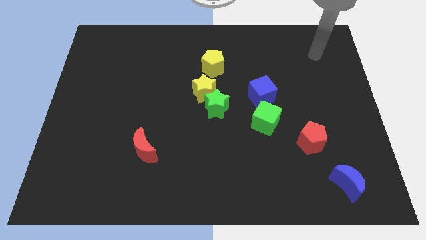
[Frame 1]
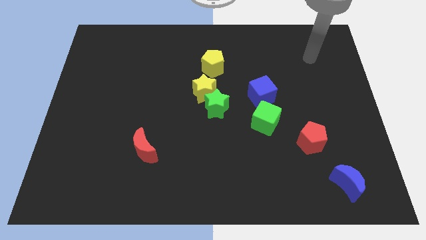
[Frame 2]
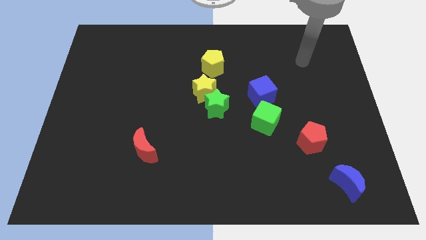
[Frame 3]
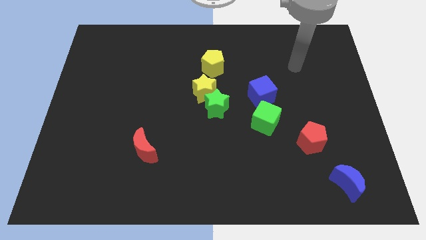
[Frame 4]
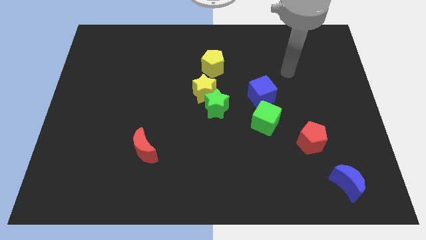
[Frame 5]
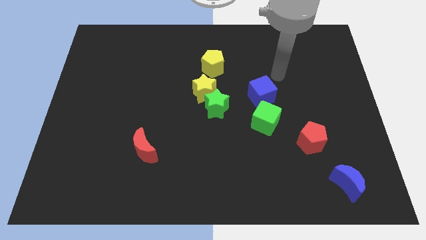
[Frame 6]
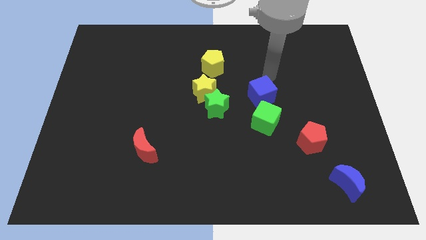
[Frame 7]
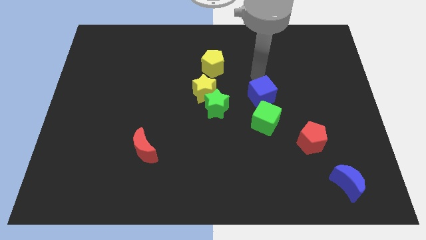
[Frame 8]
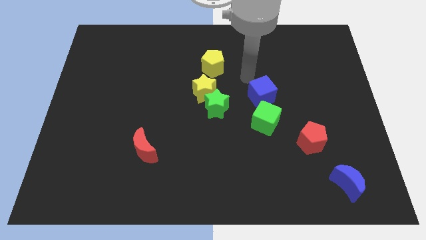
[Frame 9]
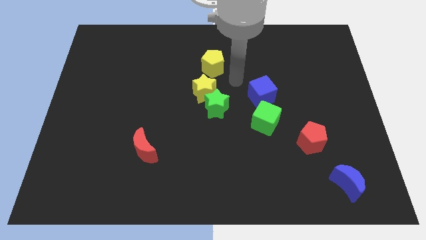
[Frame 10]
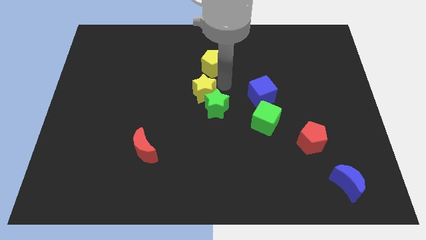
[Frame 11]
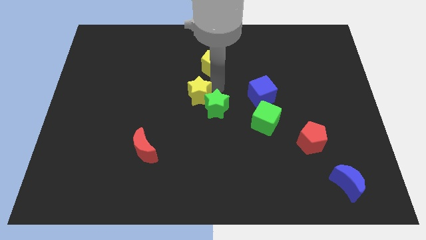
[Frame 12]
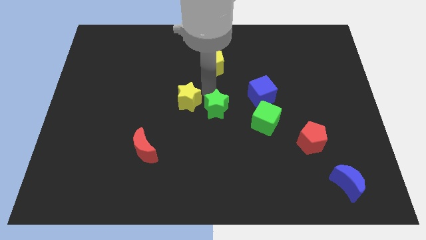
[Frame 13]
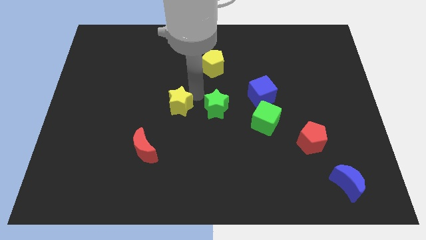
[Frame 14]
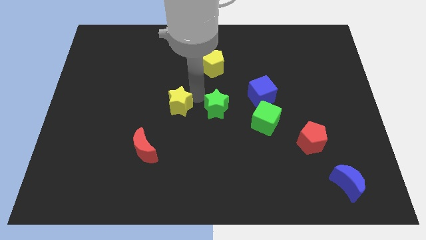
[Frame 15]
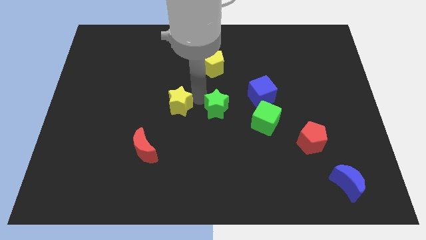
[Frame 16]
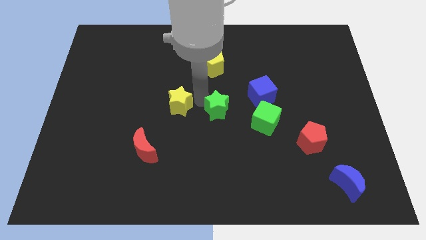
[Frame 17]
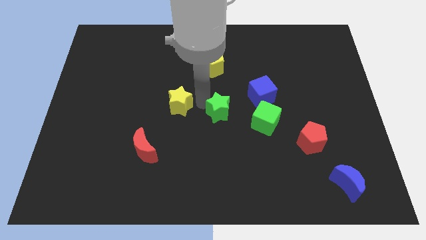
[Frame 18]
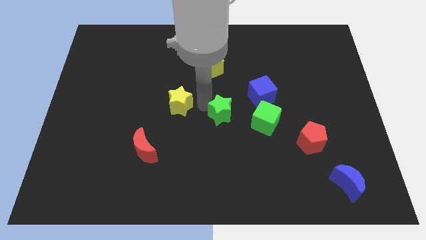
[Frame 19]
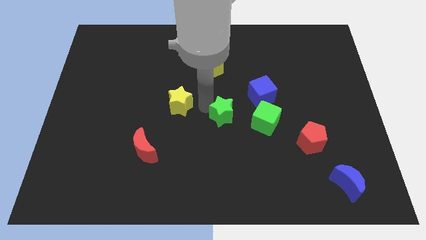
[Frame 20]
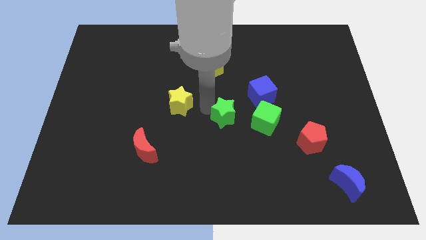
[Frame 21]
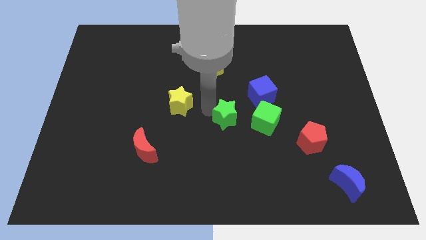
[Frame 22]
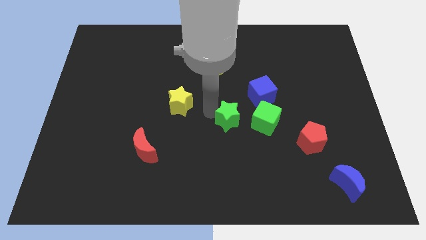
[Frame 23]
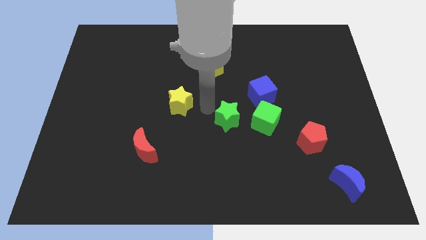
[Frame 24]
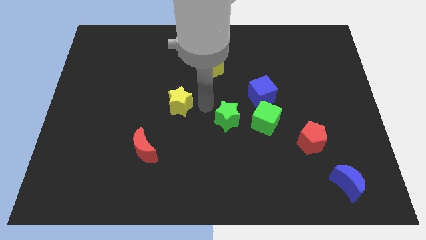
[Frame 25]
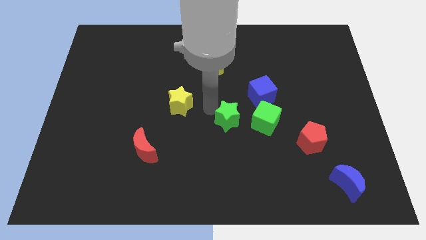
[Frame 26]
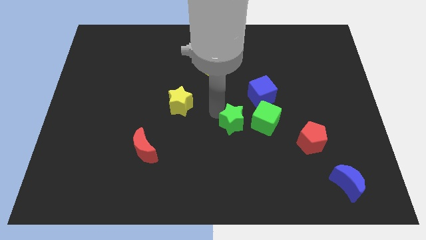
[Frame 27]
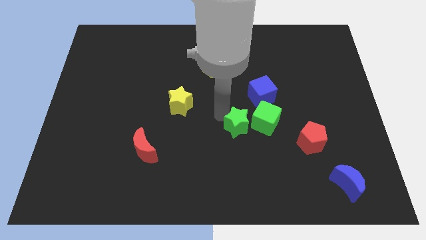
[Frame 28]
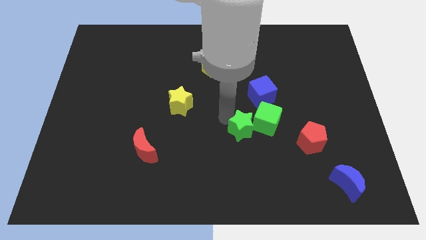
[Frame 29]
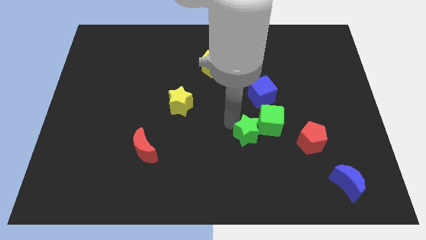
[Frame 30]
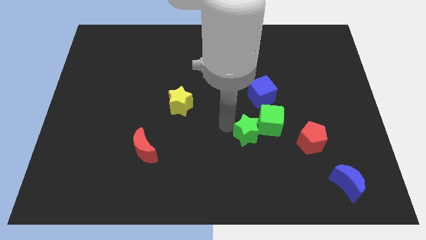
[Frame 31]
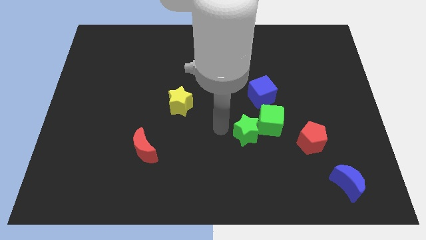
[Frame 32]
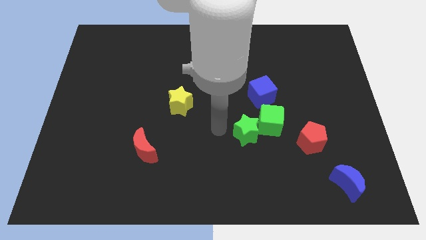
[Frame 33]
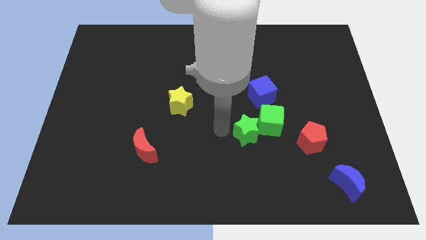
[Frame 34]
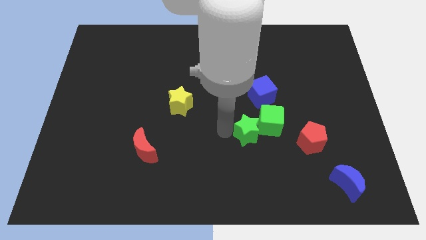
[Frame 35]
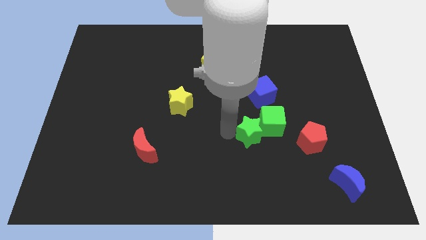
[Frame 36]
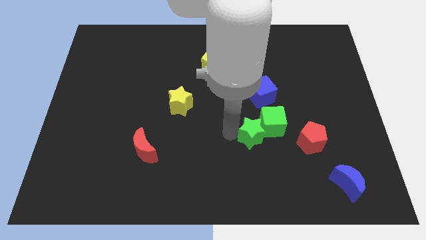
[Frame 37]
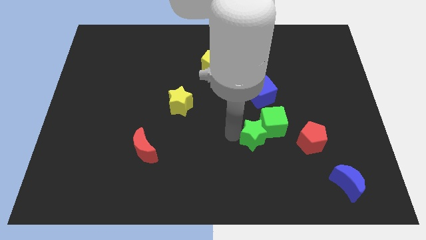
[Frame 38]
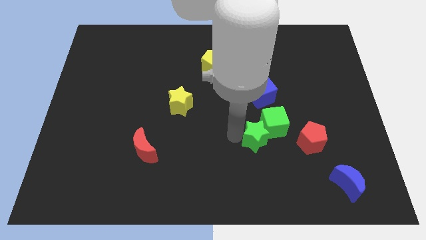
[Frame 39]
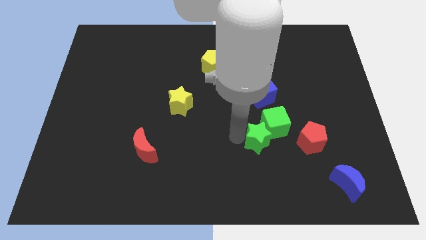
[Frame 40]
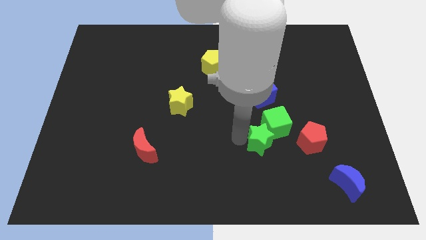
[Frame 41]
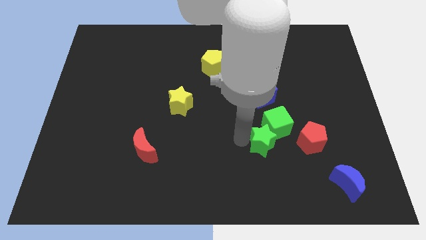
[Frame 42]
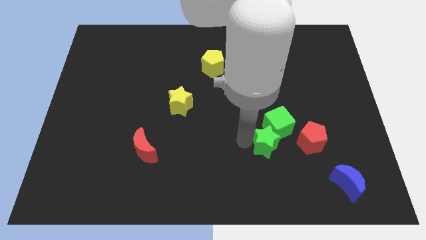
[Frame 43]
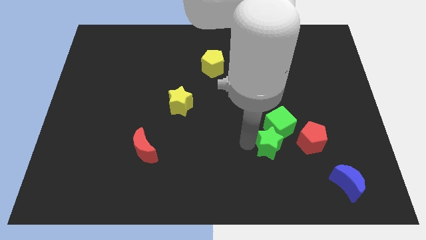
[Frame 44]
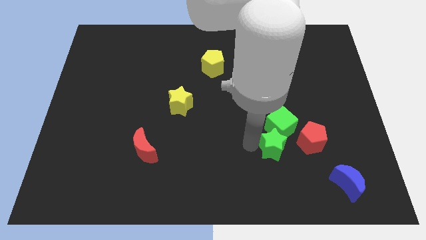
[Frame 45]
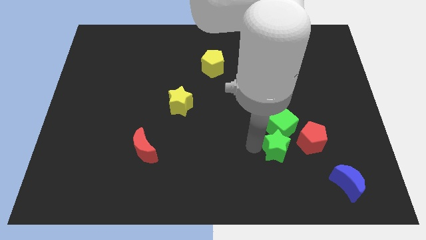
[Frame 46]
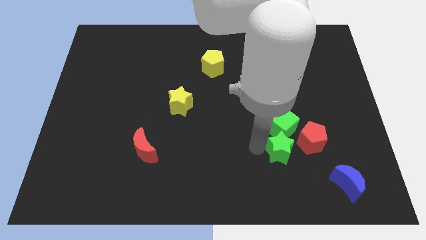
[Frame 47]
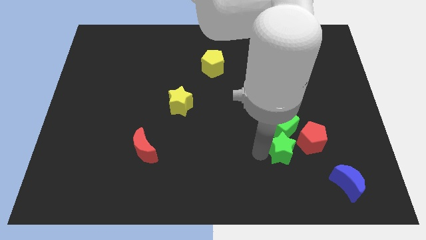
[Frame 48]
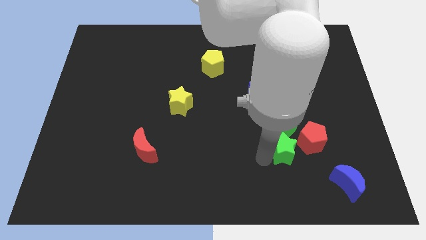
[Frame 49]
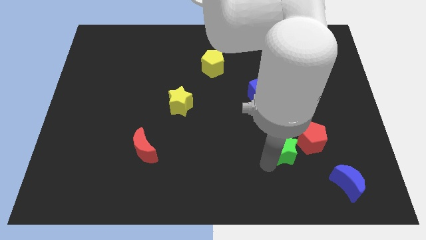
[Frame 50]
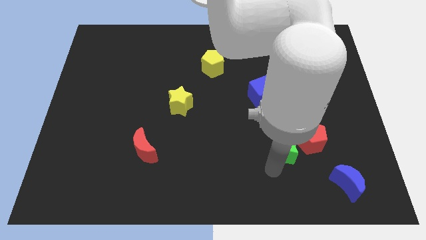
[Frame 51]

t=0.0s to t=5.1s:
push the green star a bit to the right

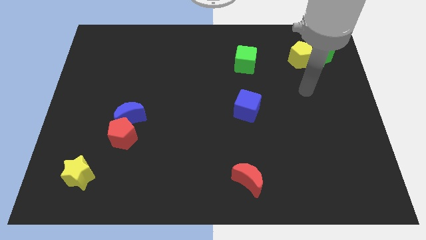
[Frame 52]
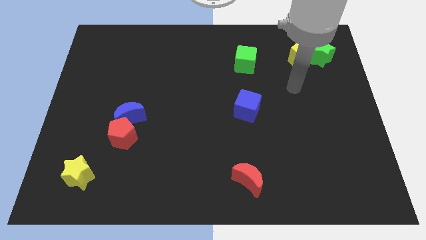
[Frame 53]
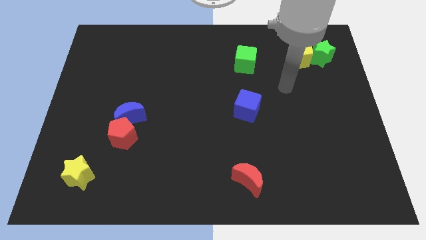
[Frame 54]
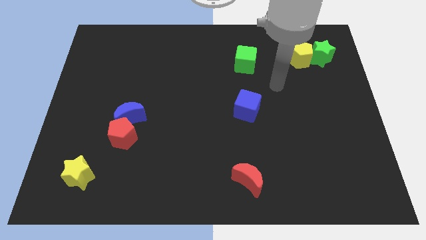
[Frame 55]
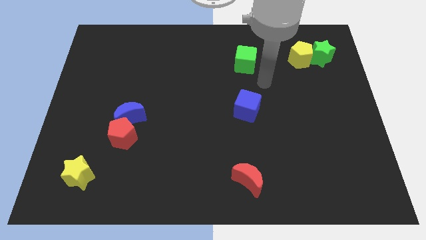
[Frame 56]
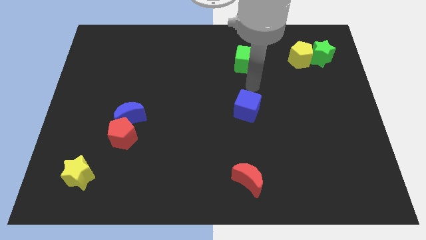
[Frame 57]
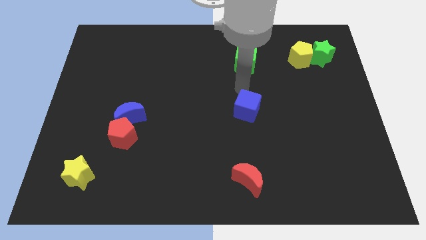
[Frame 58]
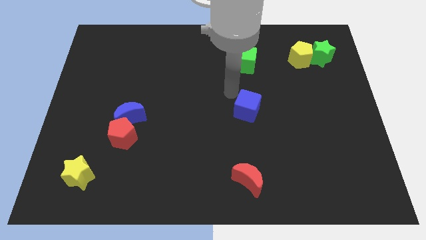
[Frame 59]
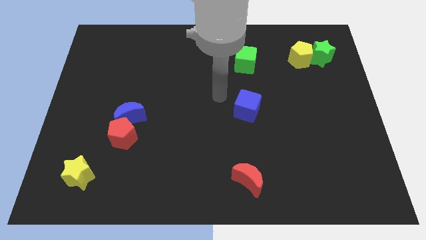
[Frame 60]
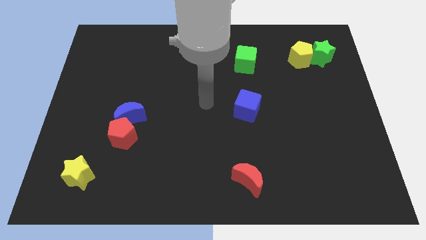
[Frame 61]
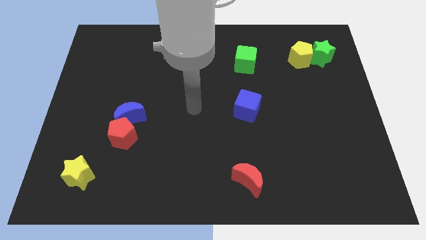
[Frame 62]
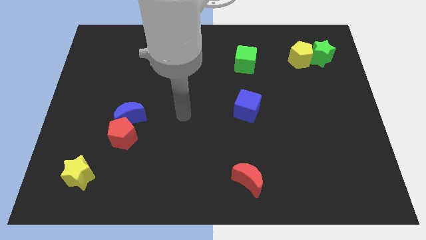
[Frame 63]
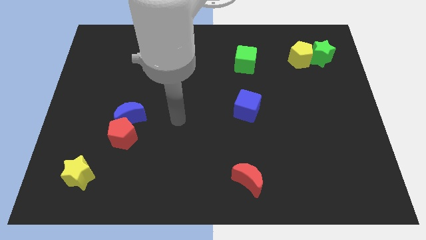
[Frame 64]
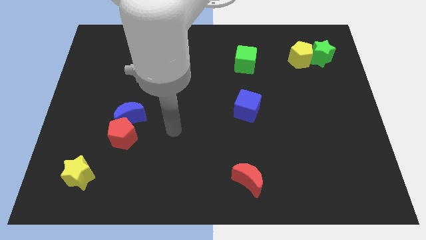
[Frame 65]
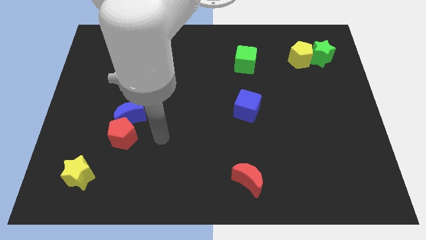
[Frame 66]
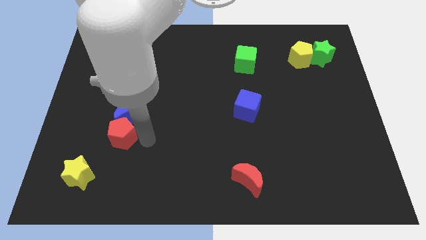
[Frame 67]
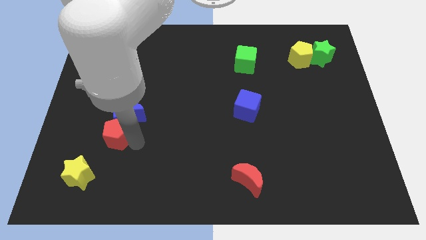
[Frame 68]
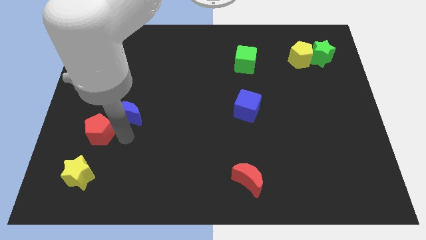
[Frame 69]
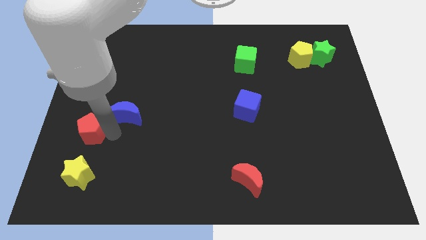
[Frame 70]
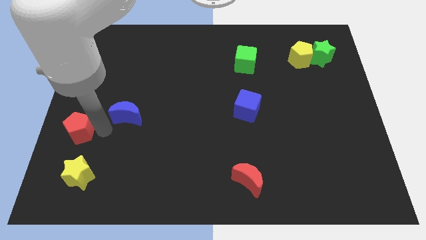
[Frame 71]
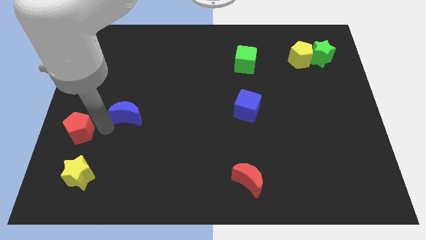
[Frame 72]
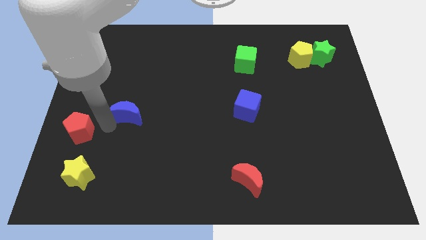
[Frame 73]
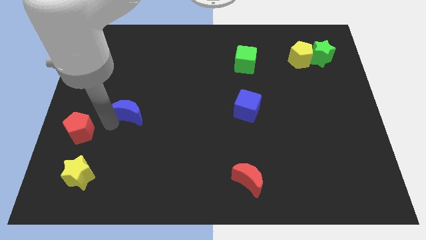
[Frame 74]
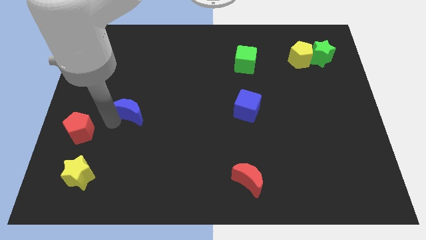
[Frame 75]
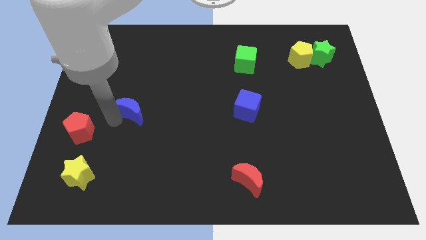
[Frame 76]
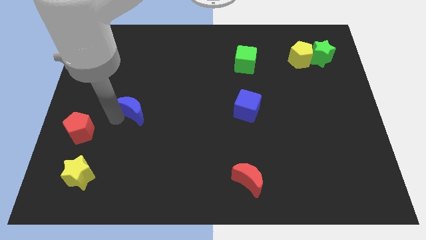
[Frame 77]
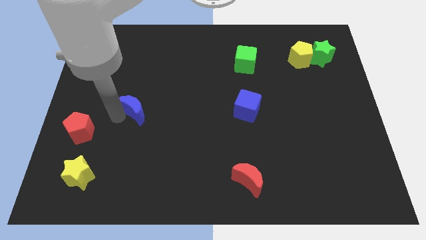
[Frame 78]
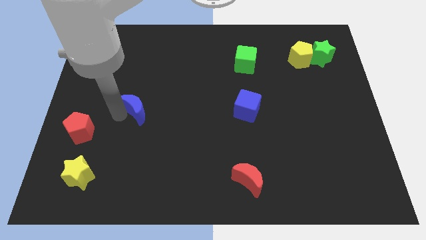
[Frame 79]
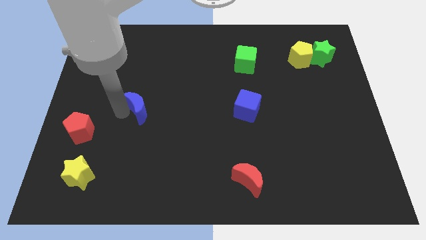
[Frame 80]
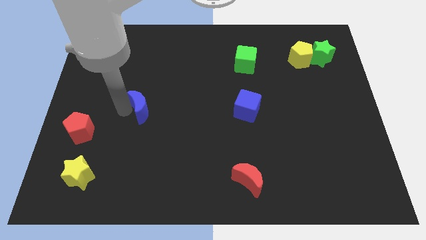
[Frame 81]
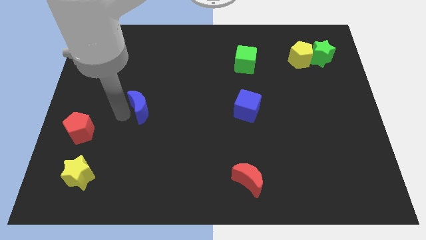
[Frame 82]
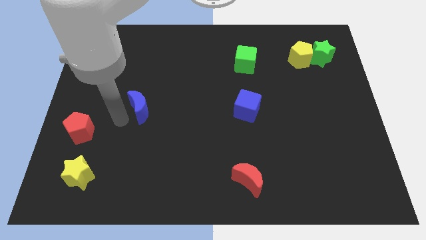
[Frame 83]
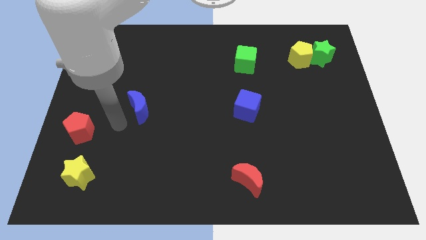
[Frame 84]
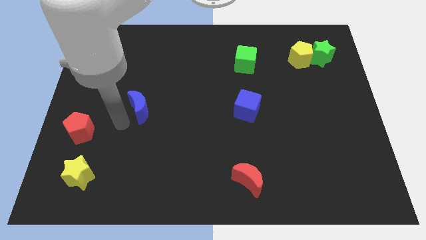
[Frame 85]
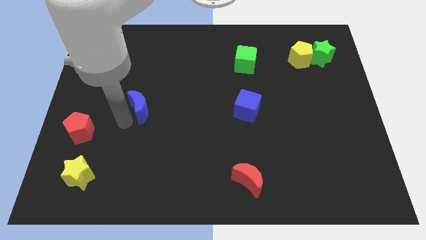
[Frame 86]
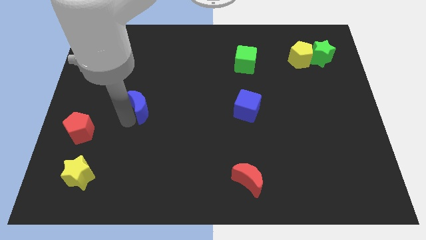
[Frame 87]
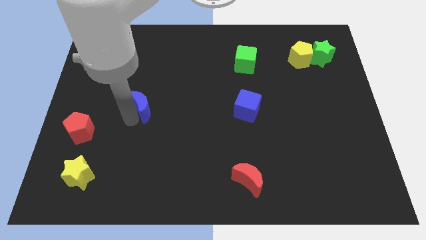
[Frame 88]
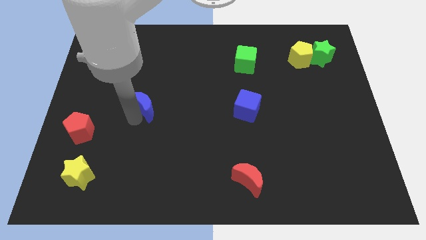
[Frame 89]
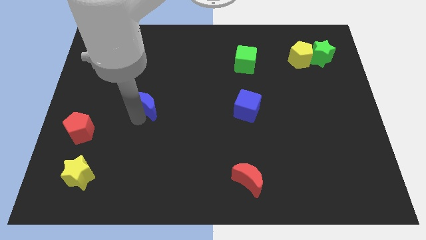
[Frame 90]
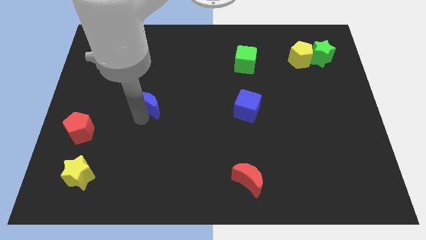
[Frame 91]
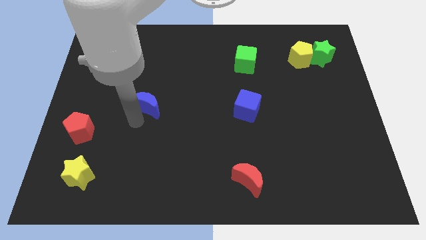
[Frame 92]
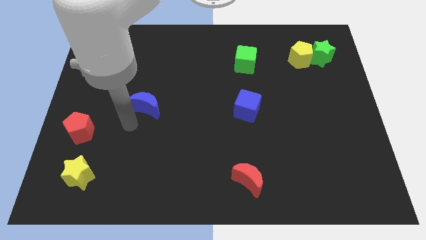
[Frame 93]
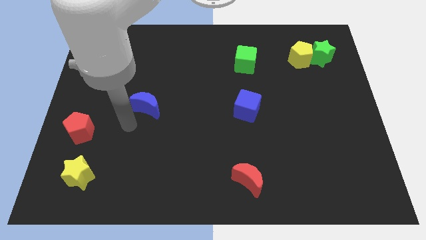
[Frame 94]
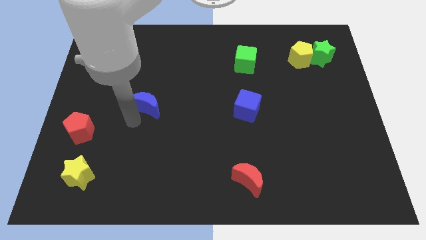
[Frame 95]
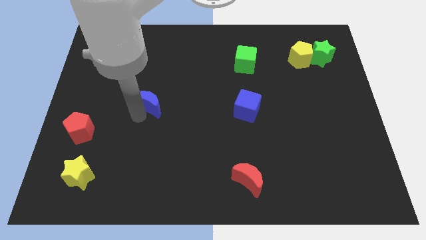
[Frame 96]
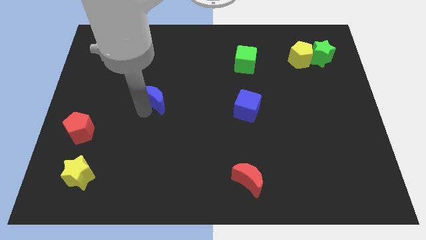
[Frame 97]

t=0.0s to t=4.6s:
push the blue moon somewhat upwards and then to the right
